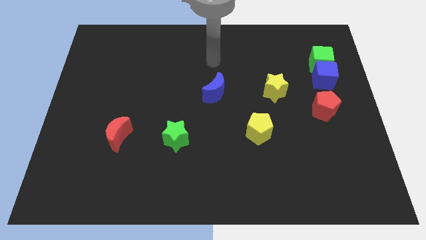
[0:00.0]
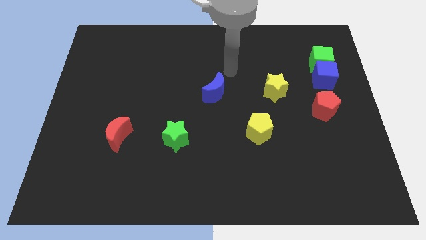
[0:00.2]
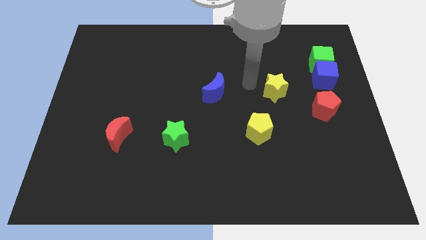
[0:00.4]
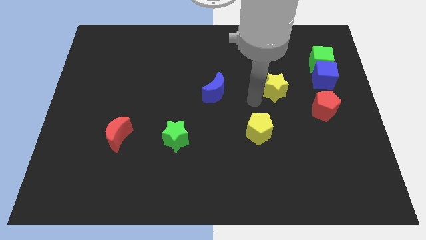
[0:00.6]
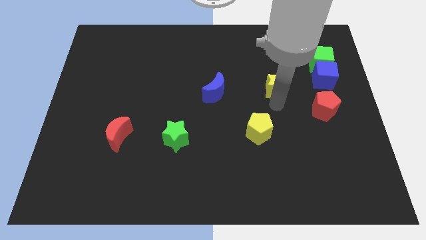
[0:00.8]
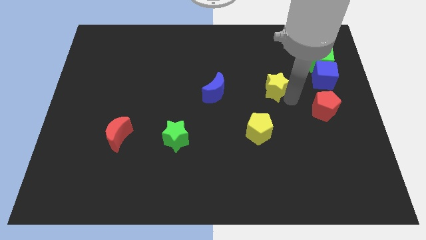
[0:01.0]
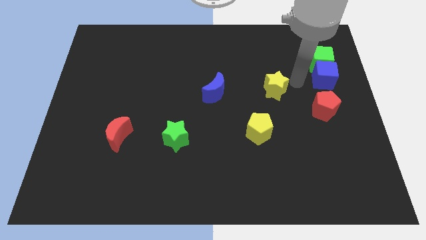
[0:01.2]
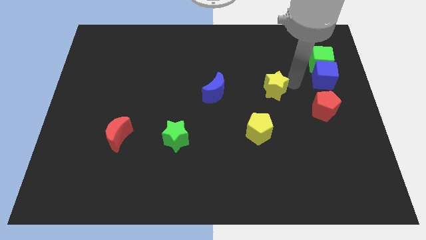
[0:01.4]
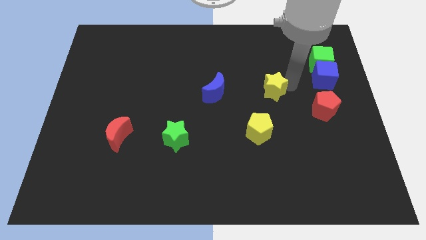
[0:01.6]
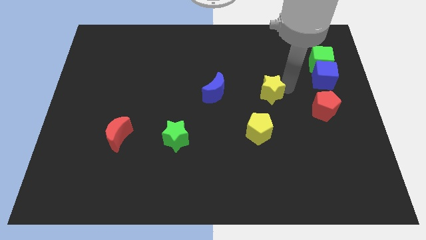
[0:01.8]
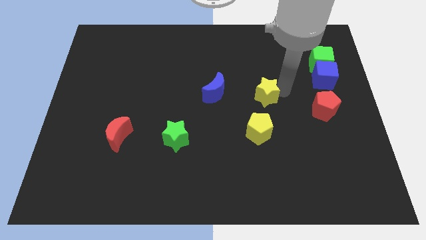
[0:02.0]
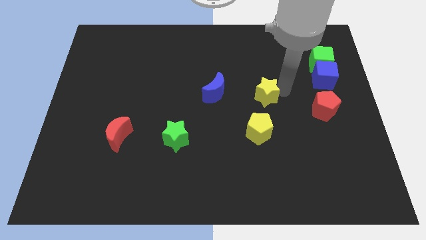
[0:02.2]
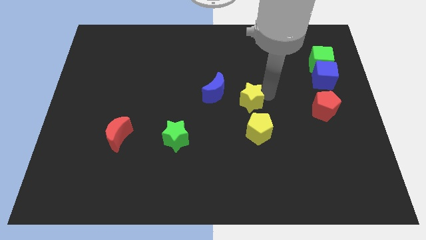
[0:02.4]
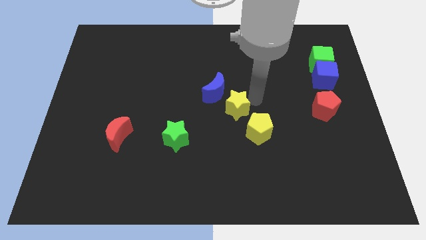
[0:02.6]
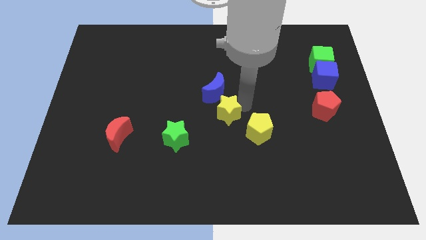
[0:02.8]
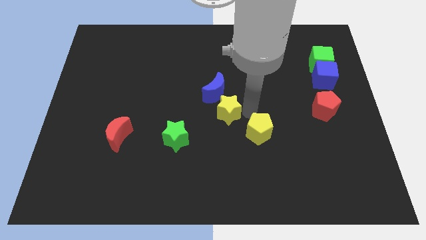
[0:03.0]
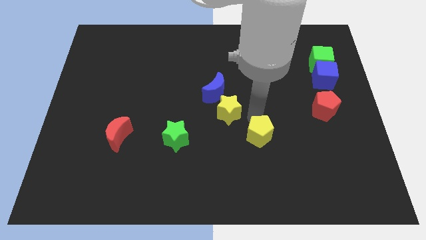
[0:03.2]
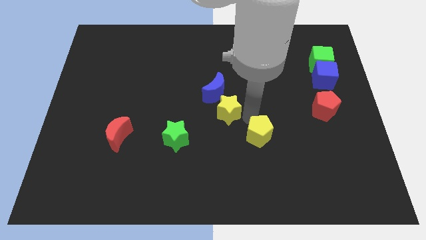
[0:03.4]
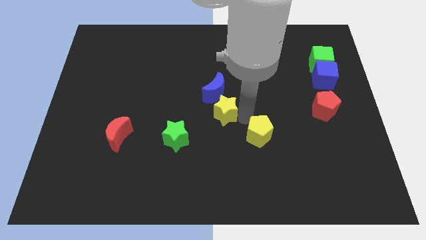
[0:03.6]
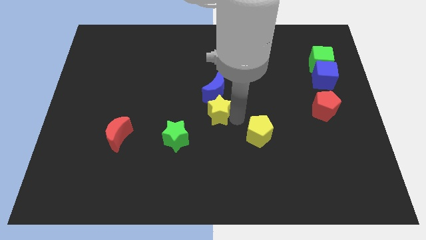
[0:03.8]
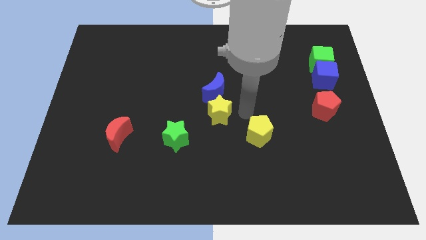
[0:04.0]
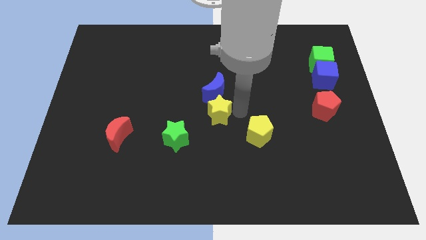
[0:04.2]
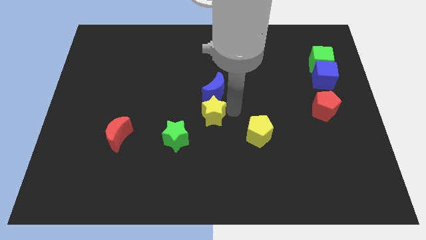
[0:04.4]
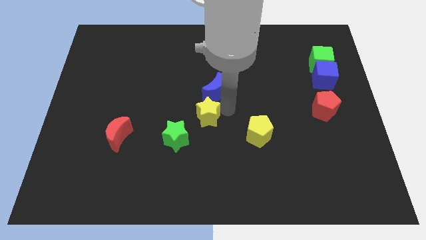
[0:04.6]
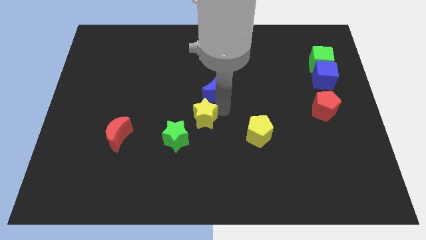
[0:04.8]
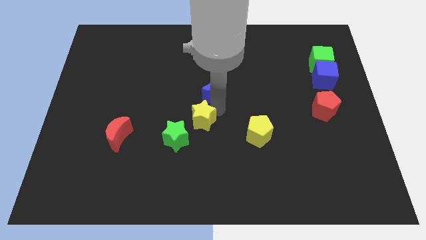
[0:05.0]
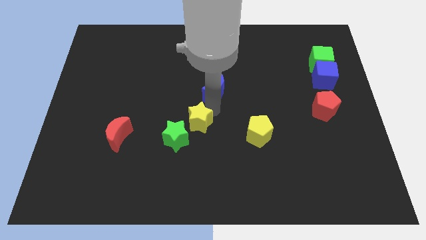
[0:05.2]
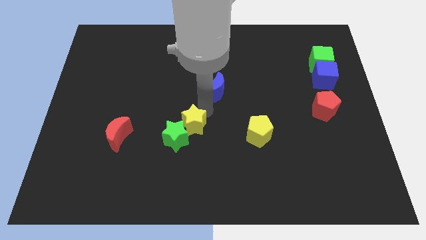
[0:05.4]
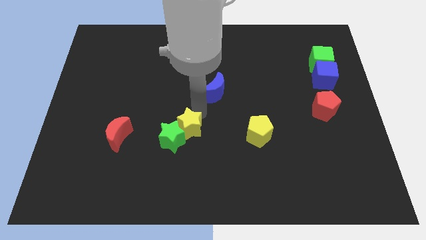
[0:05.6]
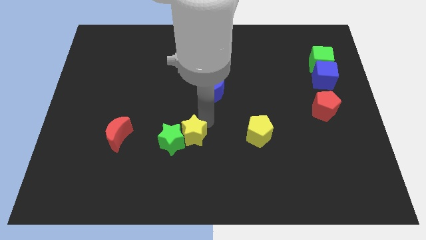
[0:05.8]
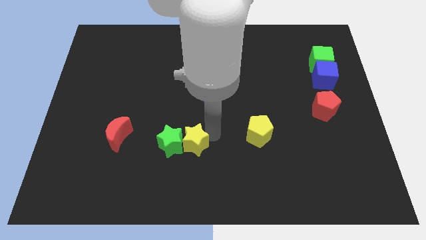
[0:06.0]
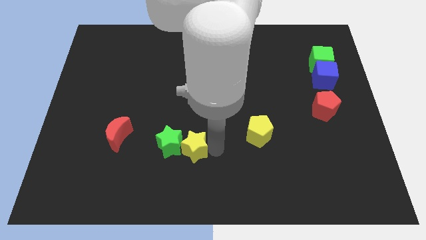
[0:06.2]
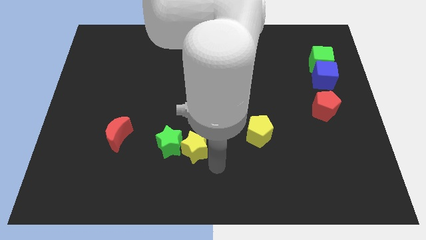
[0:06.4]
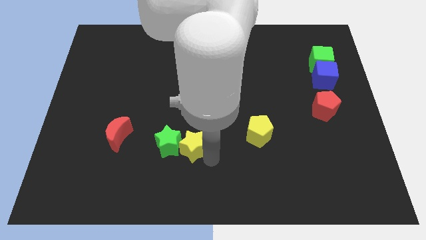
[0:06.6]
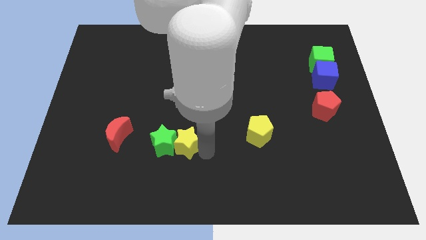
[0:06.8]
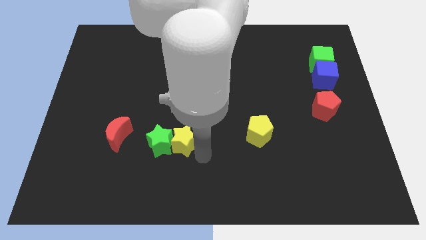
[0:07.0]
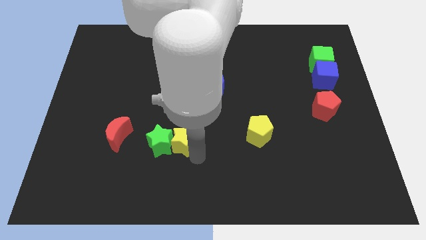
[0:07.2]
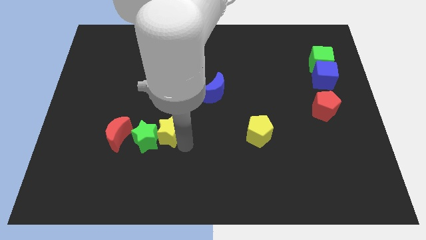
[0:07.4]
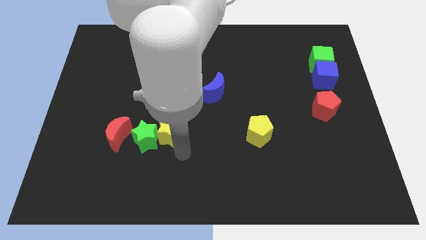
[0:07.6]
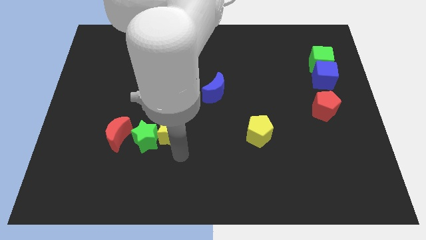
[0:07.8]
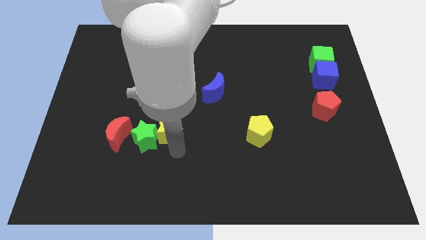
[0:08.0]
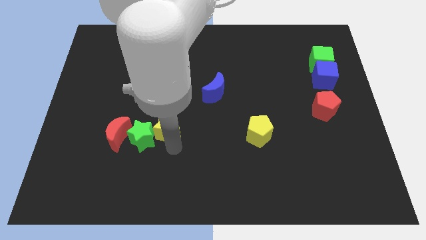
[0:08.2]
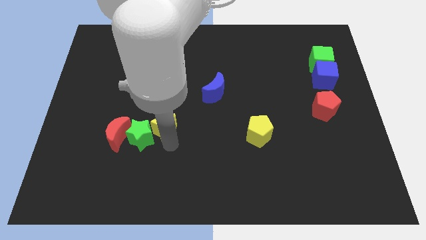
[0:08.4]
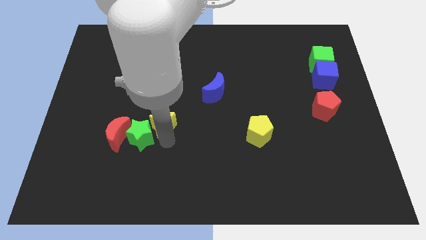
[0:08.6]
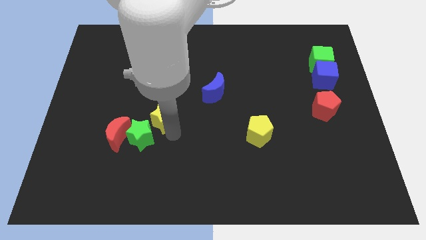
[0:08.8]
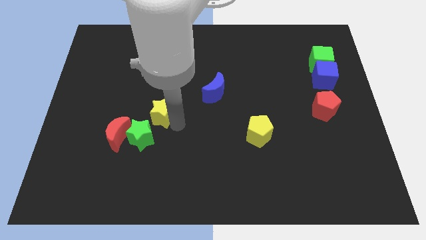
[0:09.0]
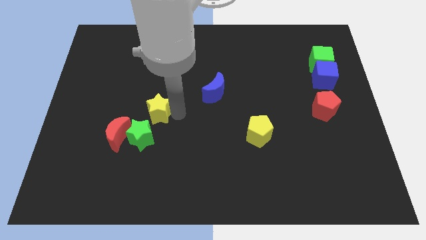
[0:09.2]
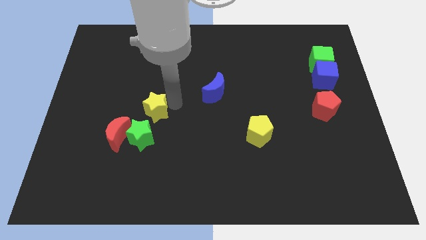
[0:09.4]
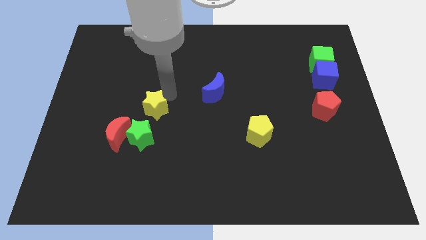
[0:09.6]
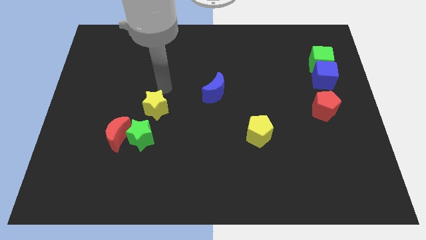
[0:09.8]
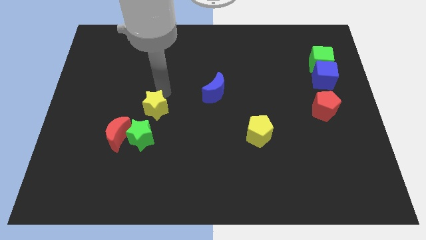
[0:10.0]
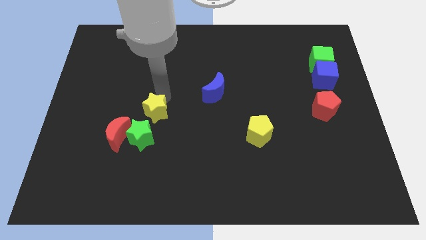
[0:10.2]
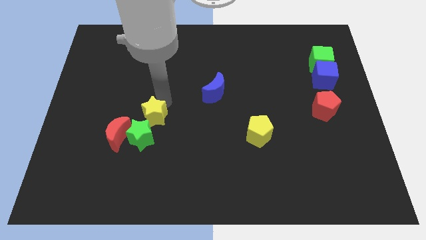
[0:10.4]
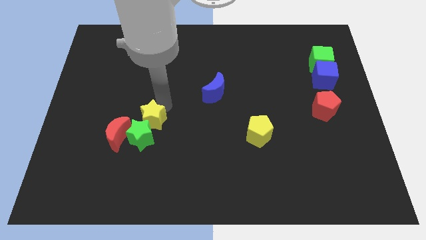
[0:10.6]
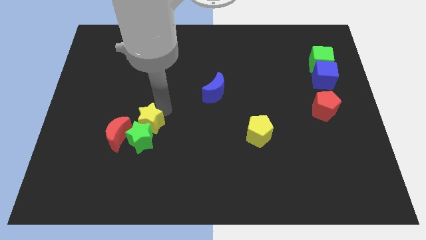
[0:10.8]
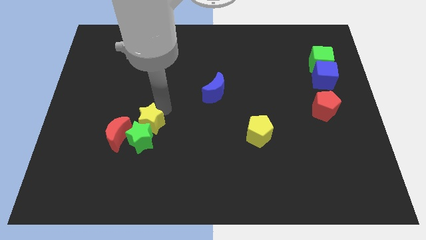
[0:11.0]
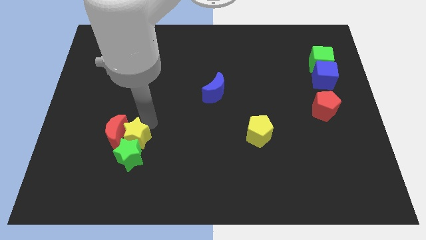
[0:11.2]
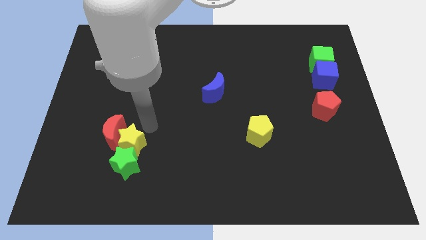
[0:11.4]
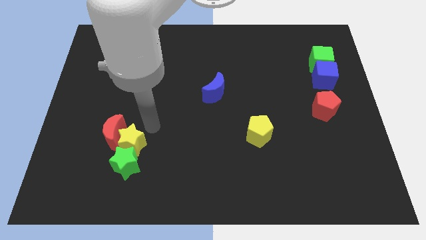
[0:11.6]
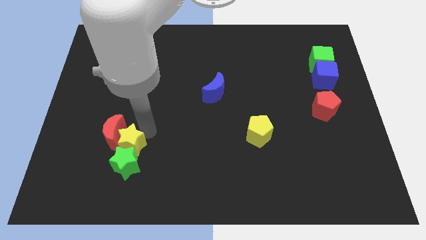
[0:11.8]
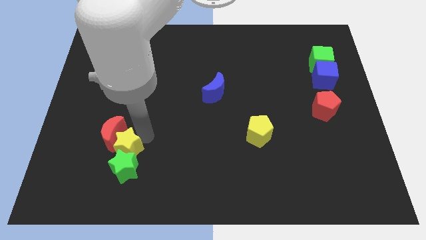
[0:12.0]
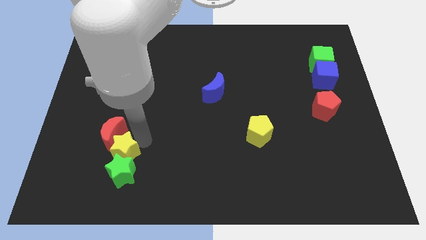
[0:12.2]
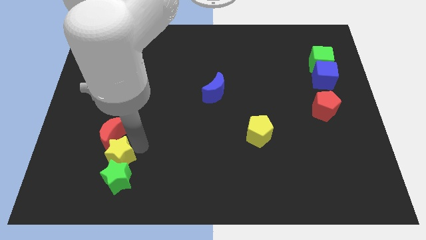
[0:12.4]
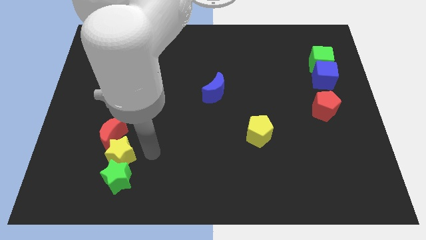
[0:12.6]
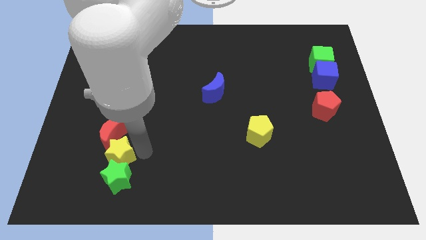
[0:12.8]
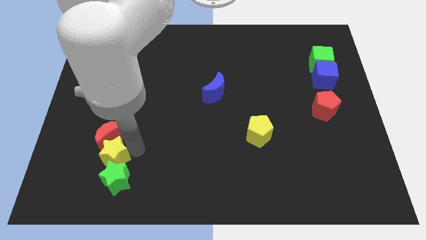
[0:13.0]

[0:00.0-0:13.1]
move the yellow star diagonally down and to the left of the red moon
